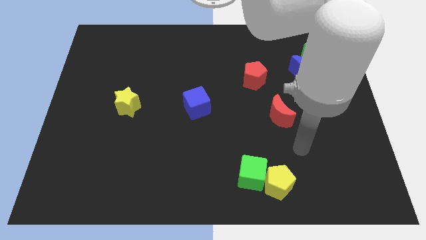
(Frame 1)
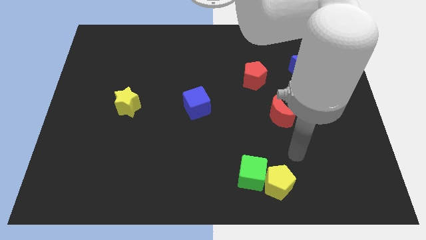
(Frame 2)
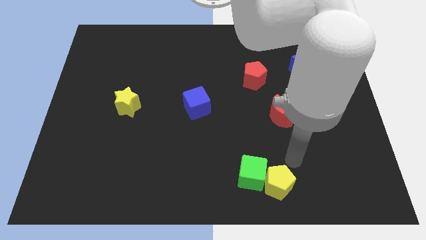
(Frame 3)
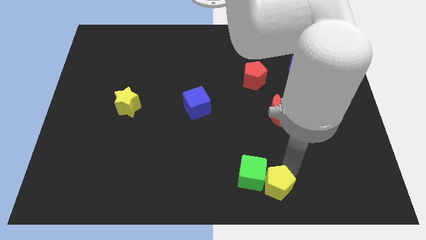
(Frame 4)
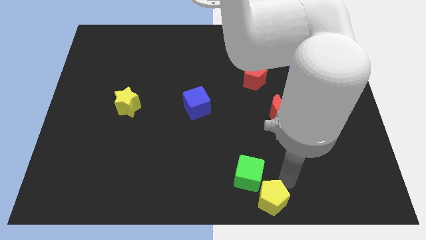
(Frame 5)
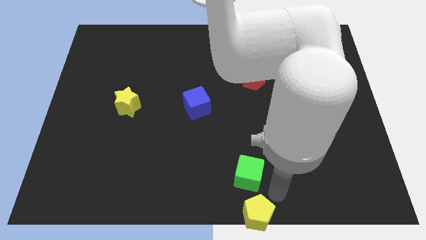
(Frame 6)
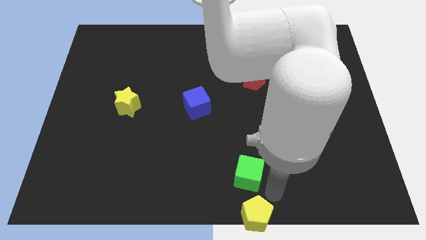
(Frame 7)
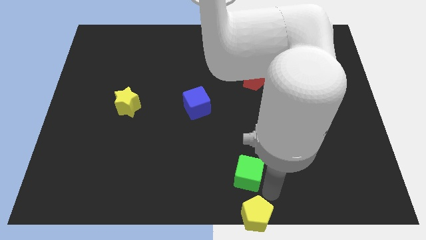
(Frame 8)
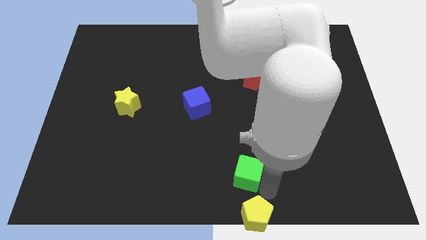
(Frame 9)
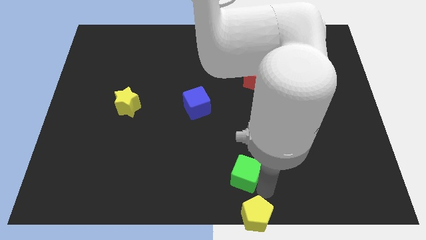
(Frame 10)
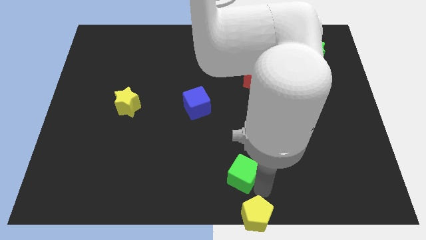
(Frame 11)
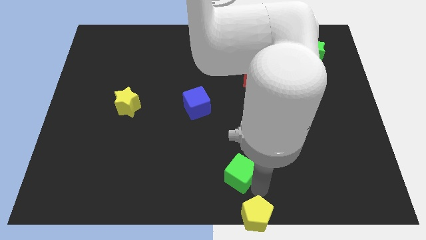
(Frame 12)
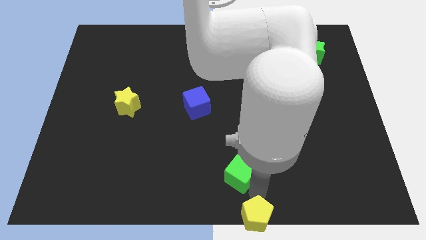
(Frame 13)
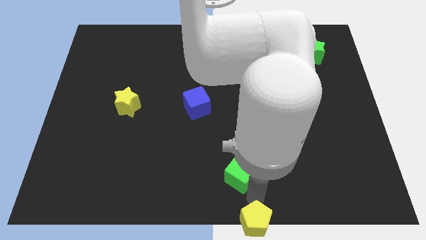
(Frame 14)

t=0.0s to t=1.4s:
pull the green cube apart from the yellow pentagon

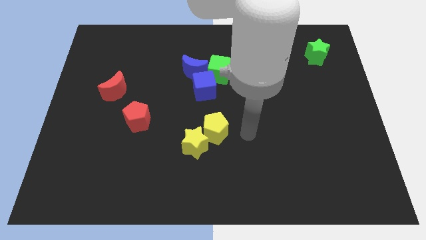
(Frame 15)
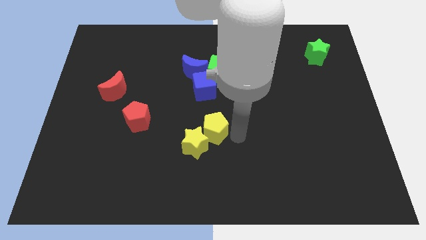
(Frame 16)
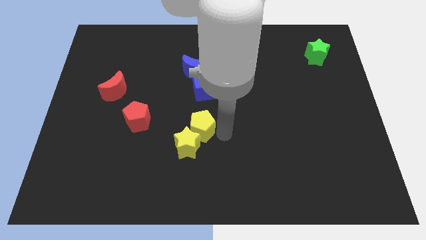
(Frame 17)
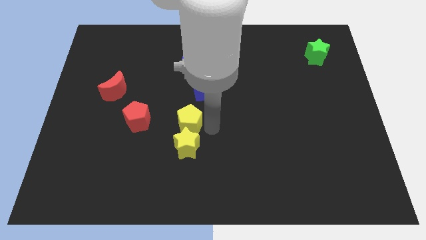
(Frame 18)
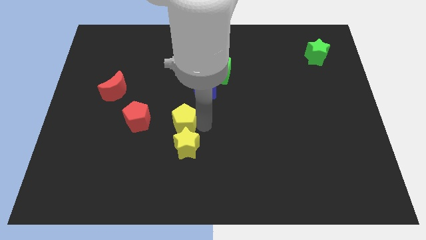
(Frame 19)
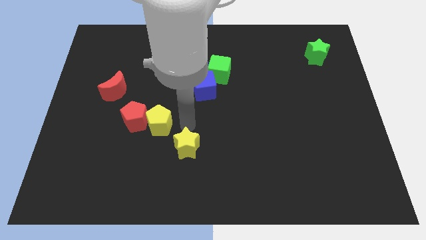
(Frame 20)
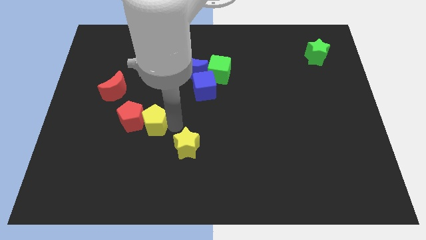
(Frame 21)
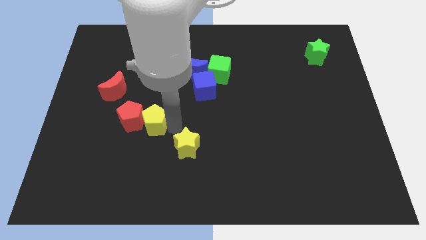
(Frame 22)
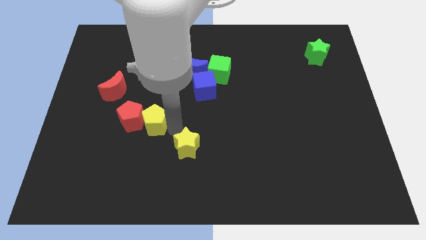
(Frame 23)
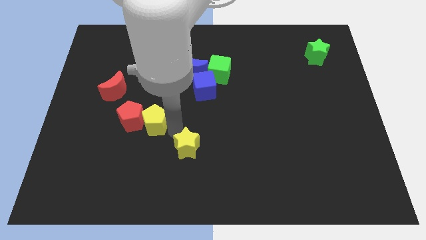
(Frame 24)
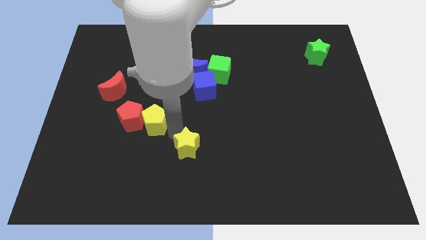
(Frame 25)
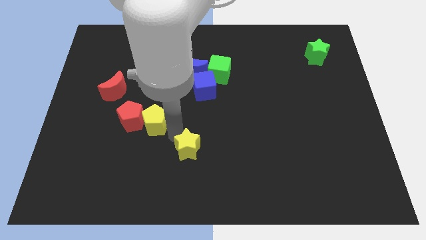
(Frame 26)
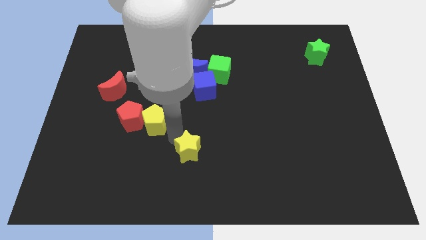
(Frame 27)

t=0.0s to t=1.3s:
move the yellow star away from the yellow pentagon

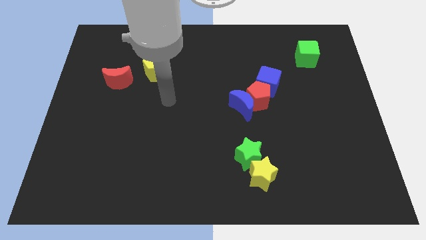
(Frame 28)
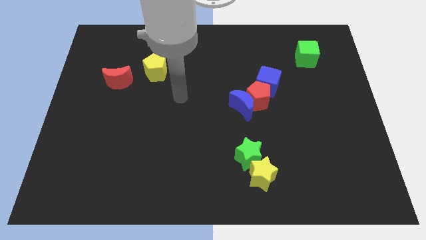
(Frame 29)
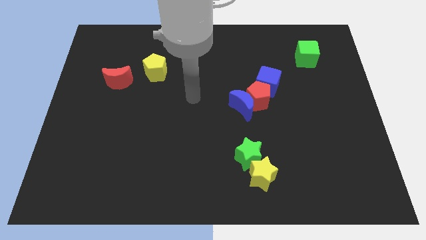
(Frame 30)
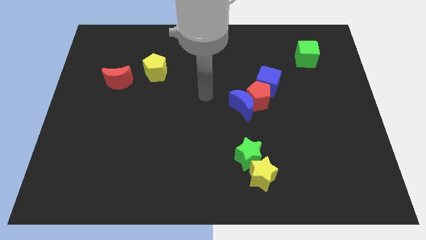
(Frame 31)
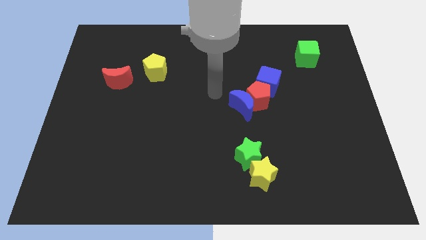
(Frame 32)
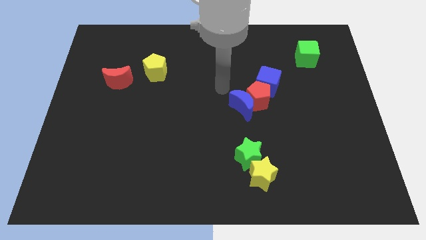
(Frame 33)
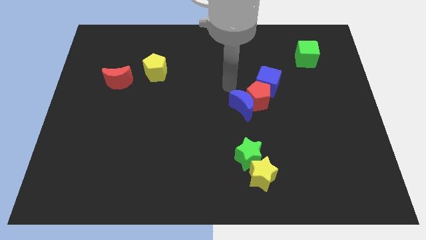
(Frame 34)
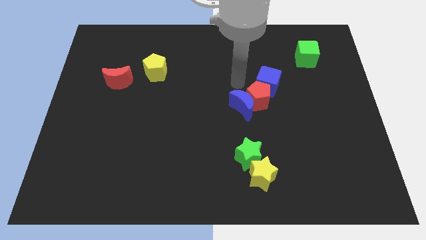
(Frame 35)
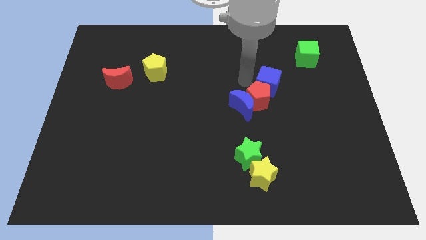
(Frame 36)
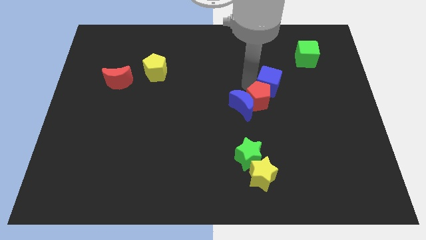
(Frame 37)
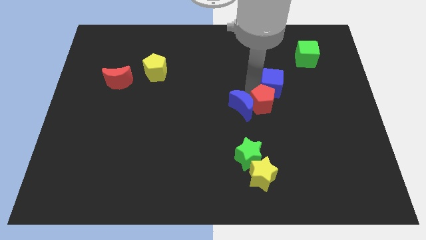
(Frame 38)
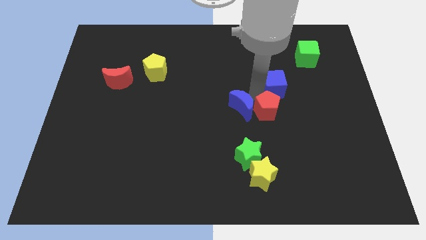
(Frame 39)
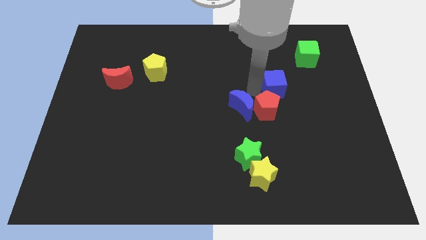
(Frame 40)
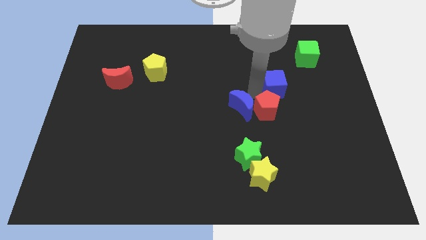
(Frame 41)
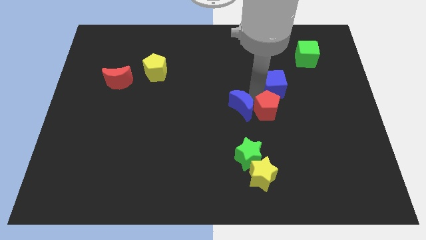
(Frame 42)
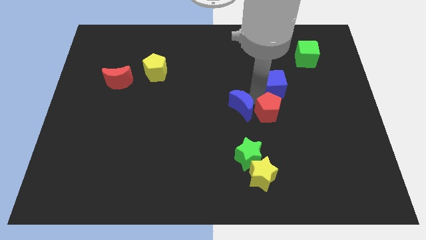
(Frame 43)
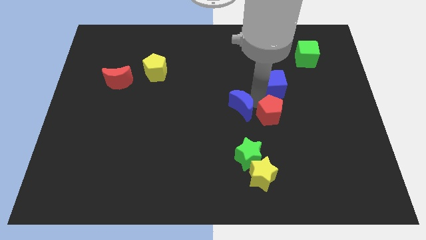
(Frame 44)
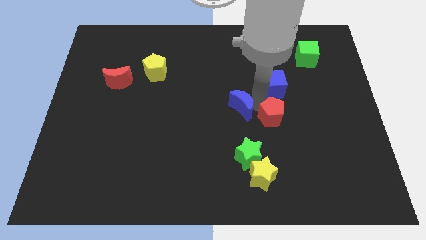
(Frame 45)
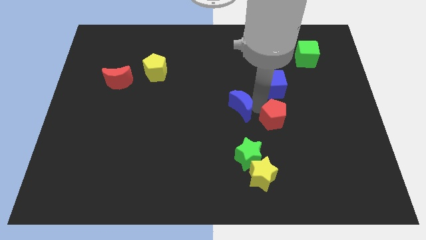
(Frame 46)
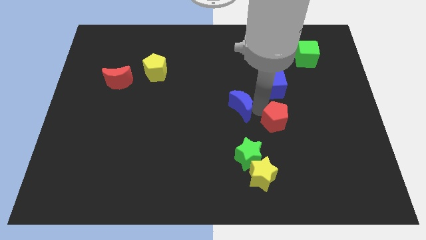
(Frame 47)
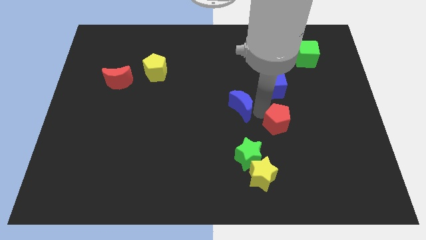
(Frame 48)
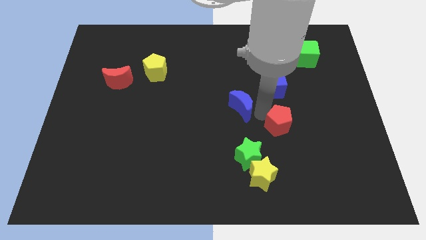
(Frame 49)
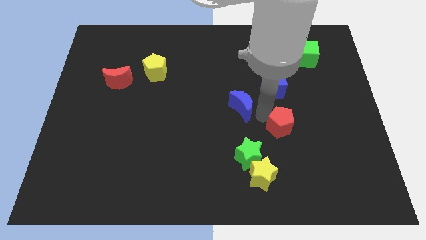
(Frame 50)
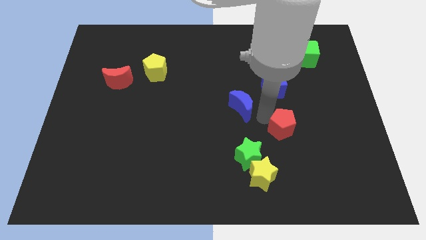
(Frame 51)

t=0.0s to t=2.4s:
pull the red pentagon apart from the blue moon and blue cube

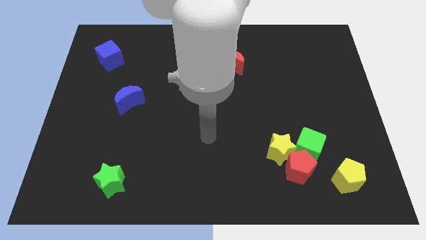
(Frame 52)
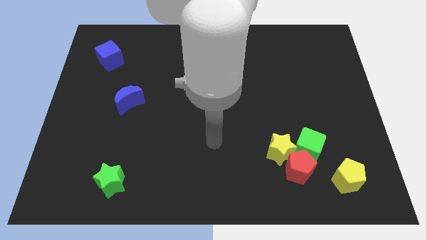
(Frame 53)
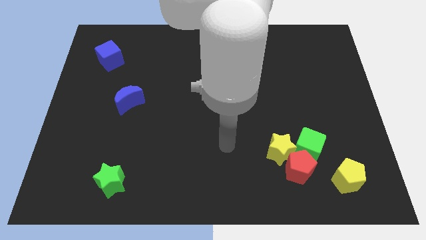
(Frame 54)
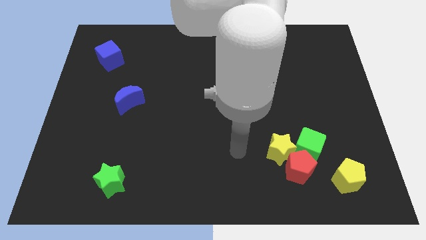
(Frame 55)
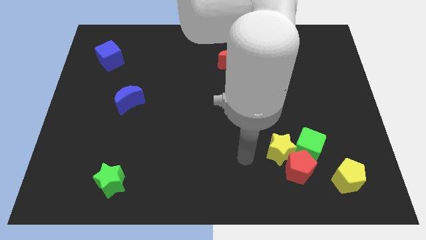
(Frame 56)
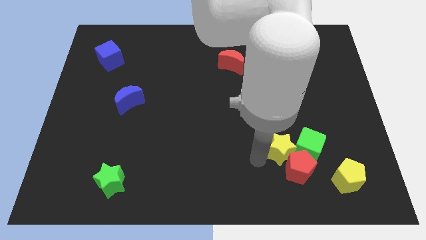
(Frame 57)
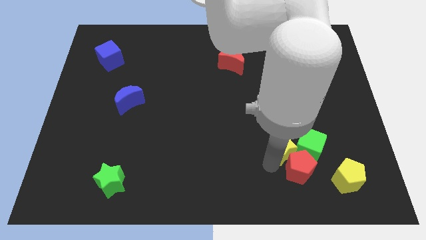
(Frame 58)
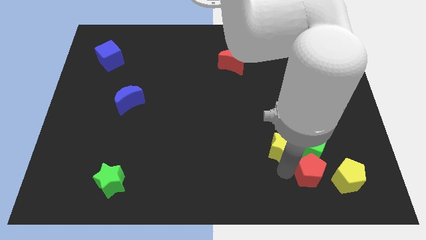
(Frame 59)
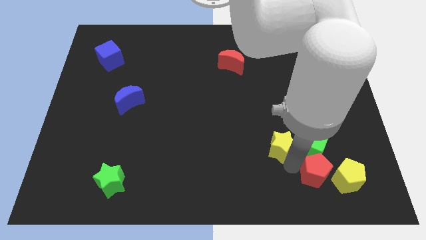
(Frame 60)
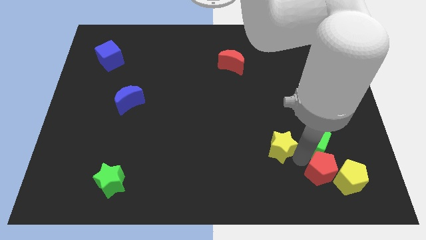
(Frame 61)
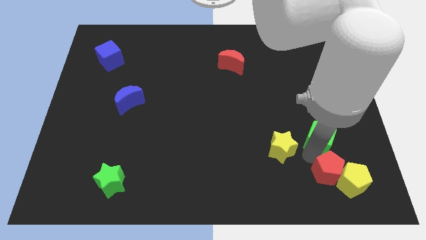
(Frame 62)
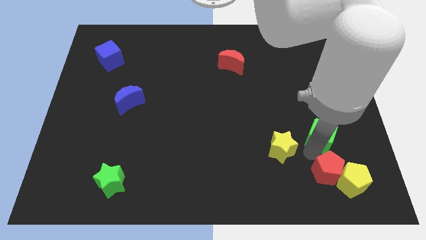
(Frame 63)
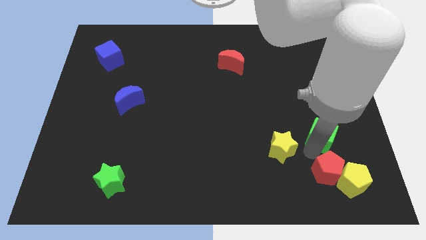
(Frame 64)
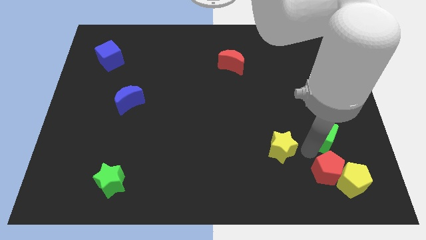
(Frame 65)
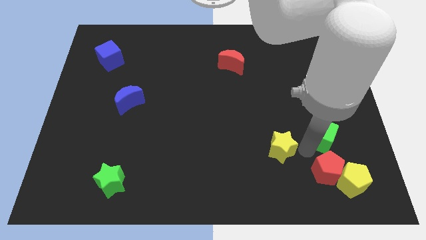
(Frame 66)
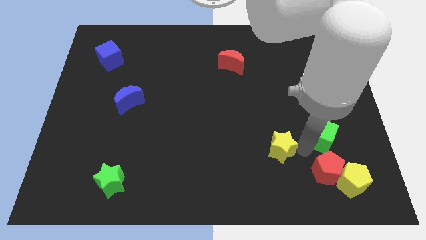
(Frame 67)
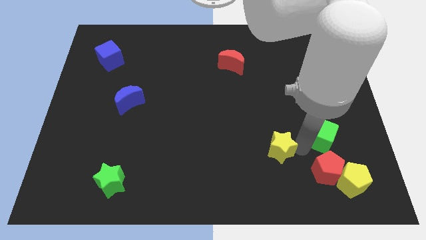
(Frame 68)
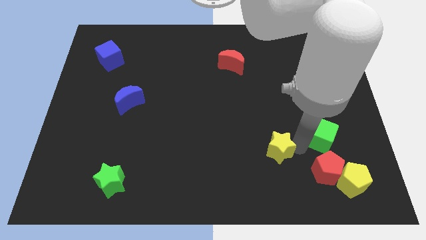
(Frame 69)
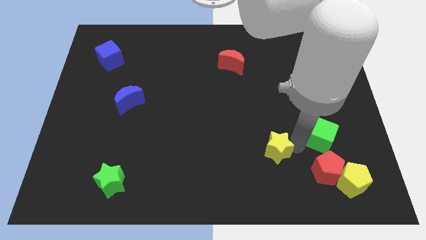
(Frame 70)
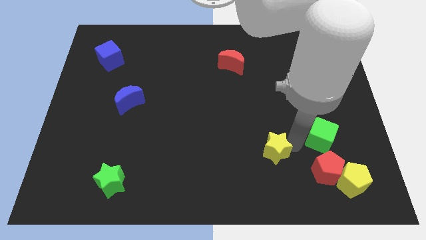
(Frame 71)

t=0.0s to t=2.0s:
separate the yellow star from the red pentagon and green cube

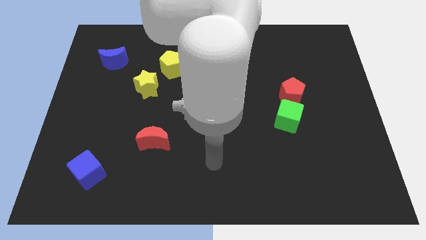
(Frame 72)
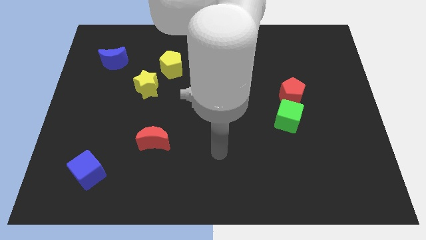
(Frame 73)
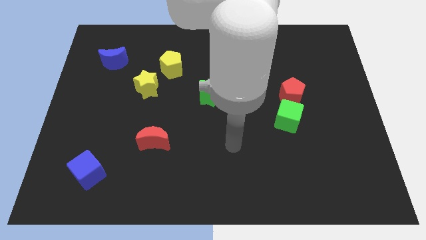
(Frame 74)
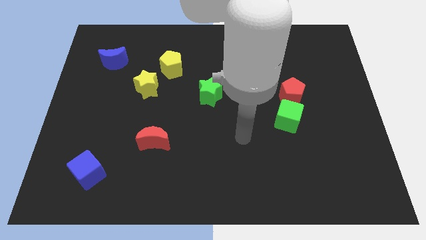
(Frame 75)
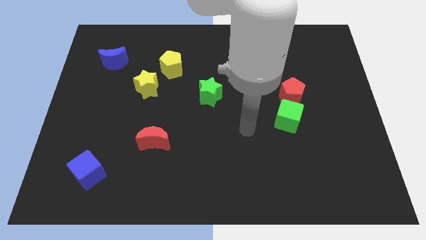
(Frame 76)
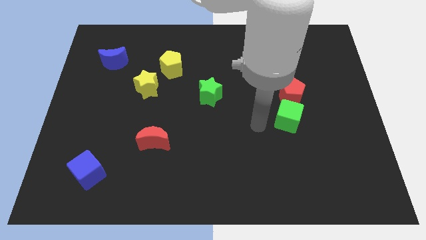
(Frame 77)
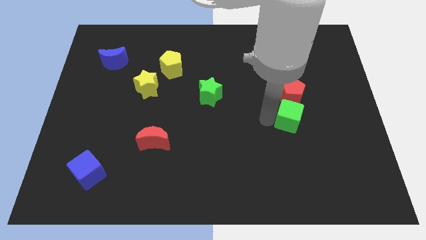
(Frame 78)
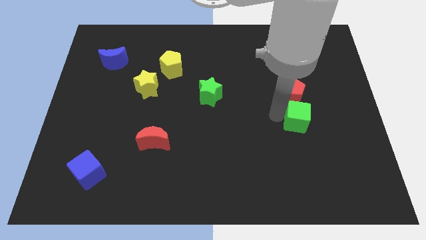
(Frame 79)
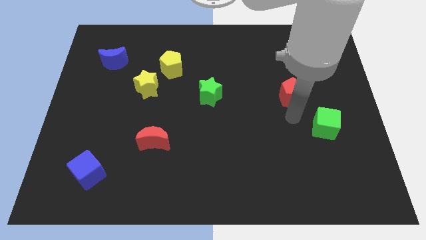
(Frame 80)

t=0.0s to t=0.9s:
move the red pentagon away from the green cube

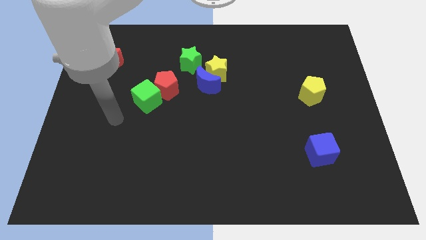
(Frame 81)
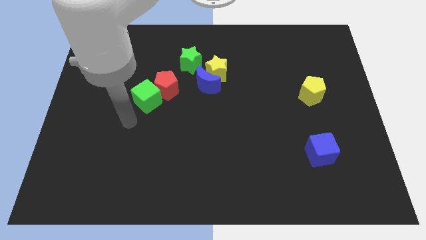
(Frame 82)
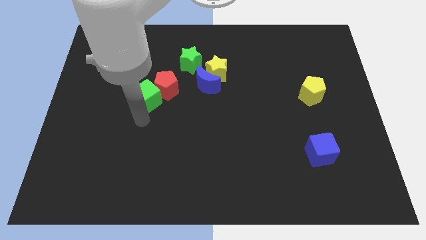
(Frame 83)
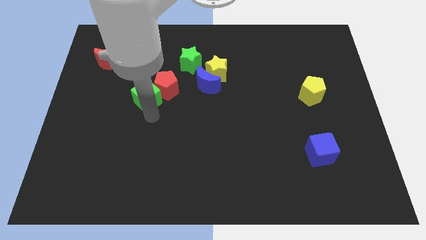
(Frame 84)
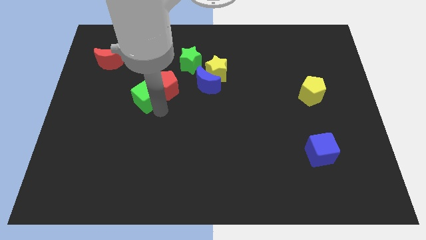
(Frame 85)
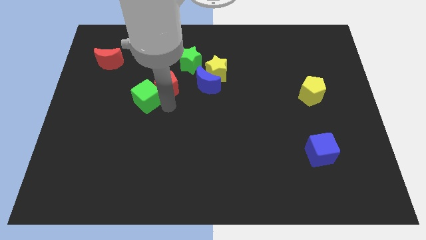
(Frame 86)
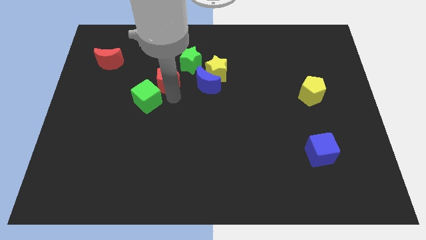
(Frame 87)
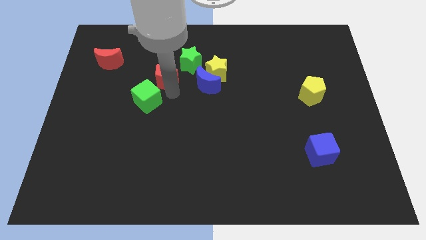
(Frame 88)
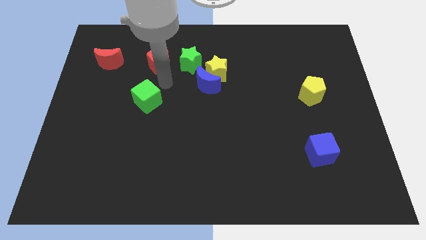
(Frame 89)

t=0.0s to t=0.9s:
pull the green cube apart from the red pentagon

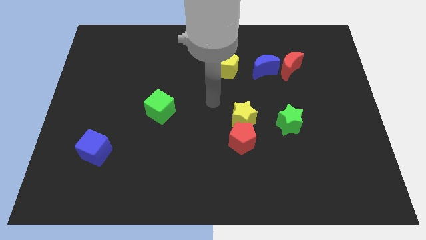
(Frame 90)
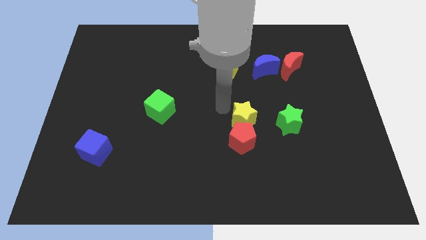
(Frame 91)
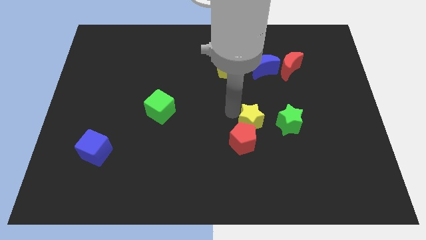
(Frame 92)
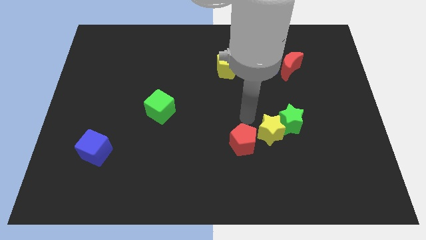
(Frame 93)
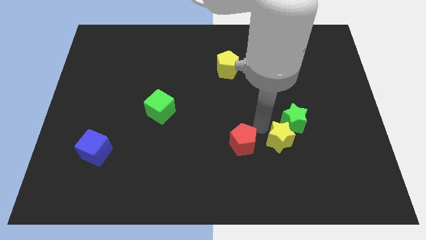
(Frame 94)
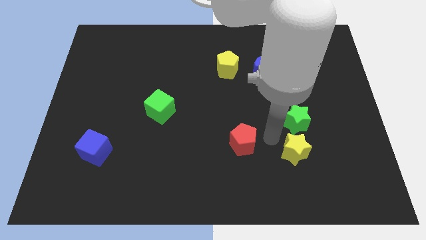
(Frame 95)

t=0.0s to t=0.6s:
move the red pentagon away from the yellow star
